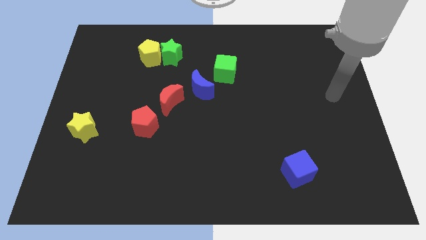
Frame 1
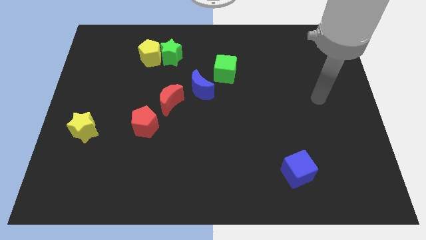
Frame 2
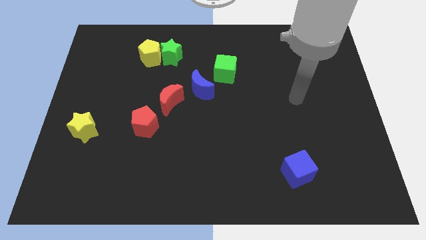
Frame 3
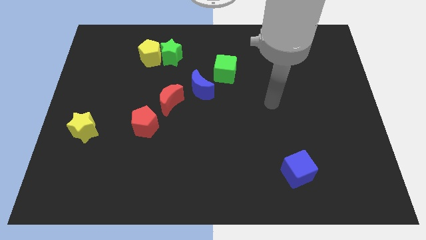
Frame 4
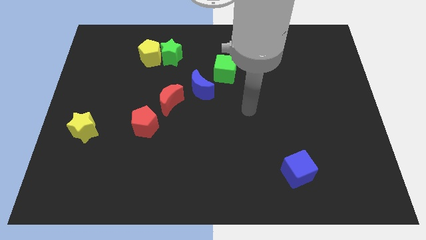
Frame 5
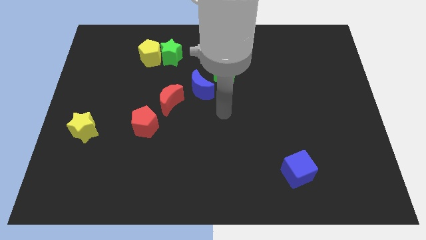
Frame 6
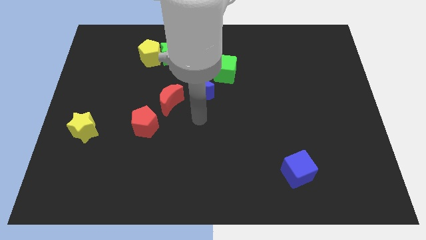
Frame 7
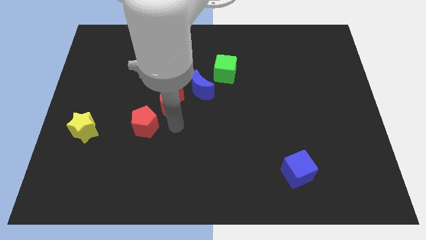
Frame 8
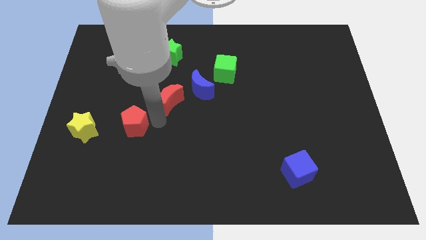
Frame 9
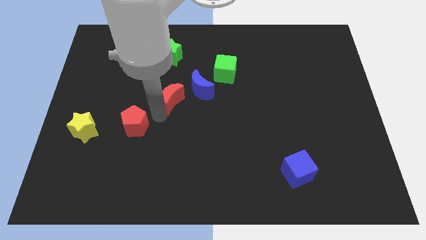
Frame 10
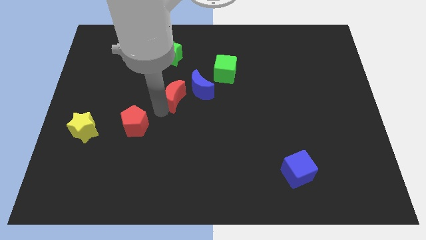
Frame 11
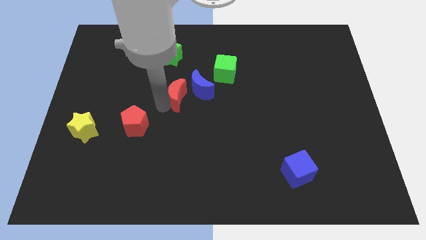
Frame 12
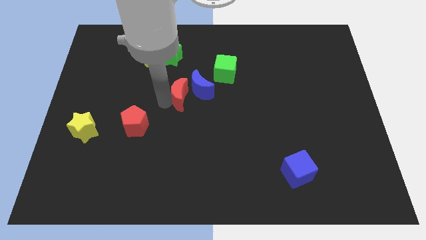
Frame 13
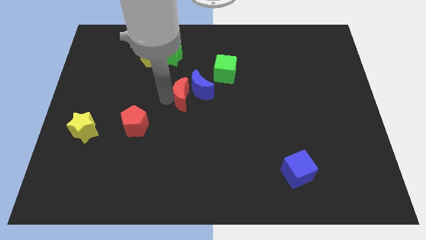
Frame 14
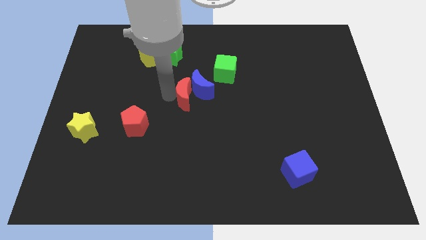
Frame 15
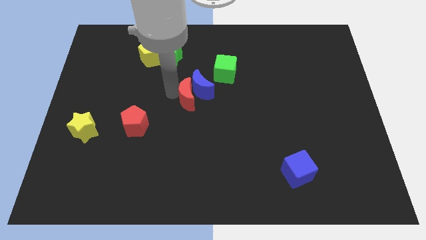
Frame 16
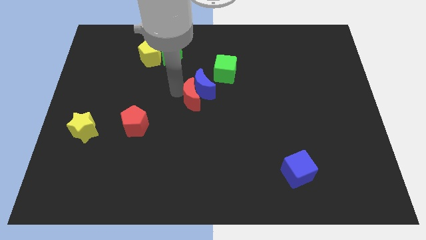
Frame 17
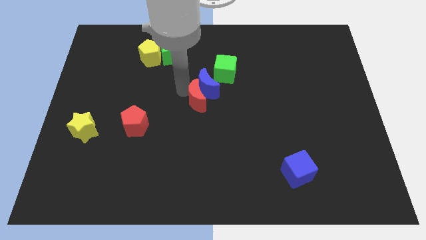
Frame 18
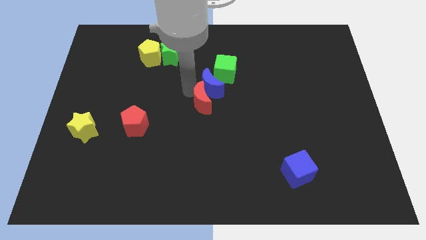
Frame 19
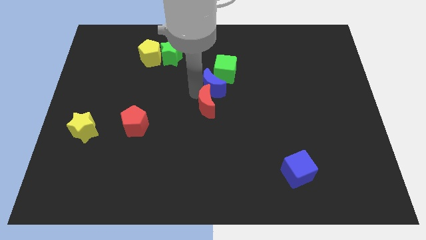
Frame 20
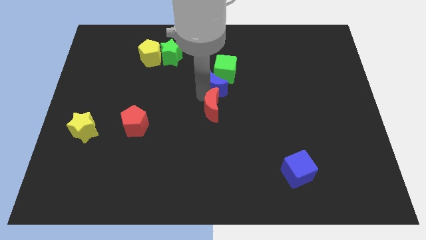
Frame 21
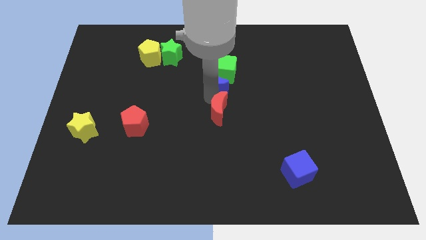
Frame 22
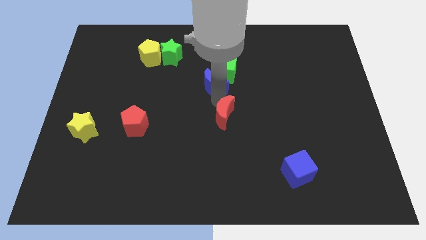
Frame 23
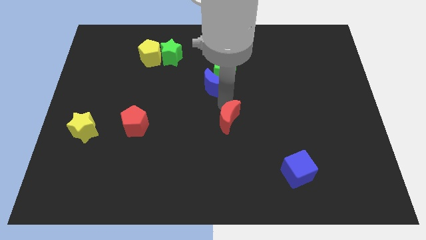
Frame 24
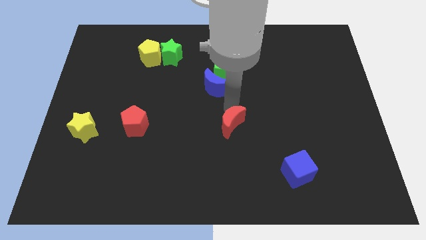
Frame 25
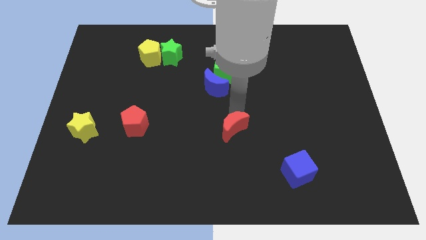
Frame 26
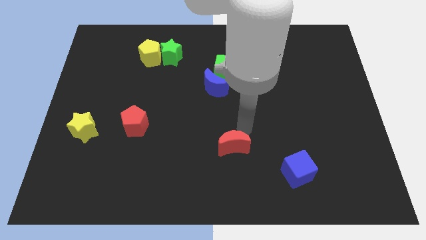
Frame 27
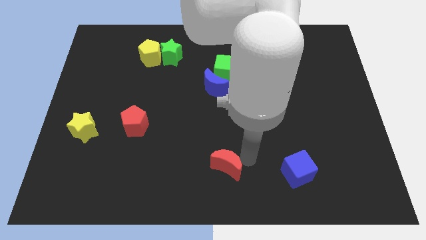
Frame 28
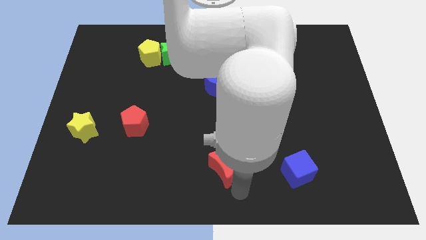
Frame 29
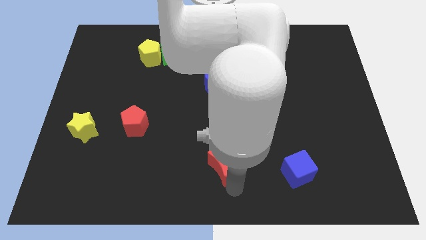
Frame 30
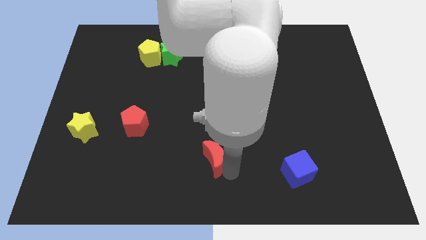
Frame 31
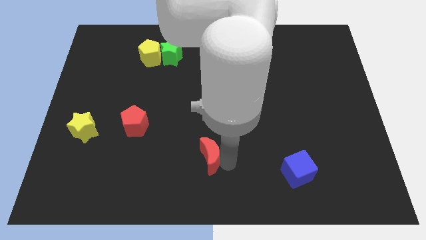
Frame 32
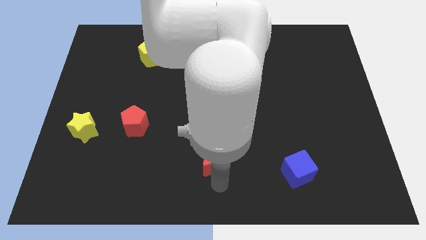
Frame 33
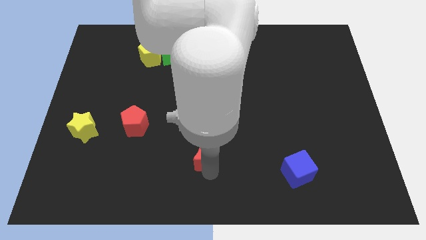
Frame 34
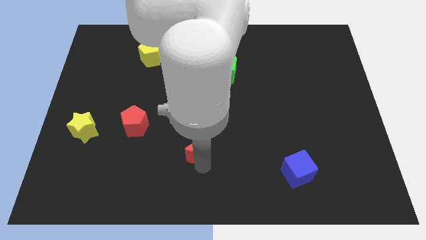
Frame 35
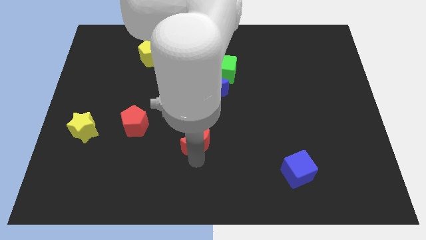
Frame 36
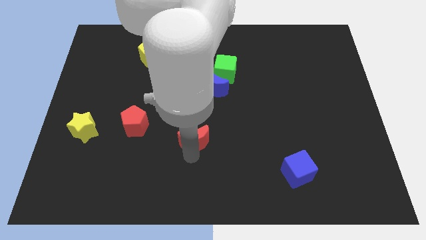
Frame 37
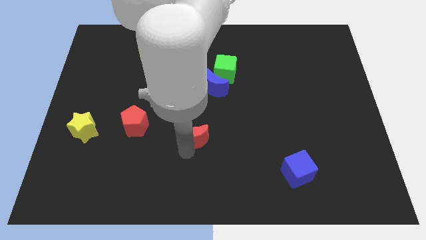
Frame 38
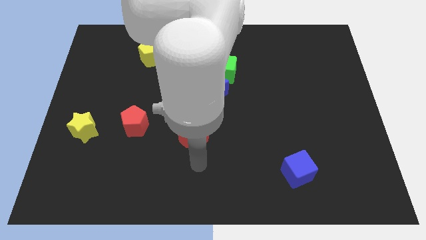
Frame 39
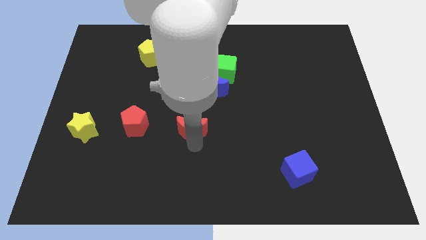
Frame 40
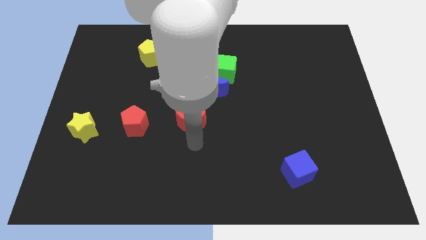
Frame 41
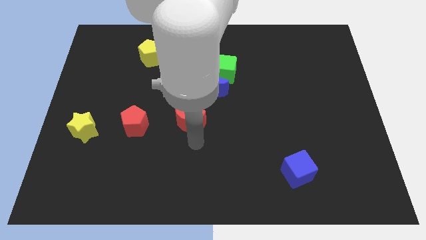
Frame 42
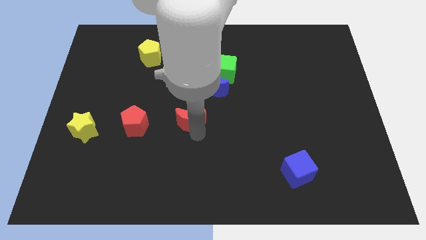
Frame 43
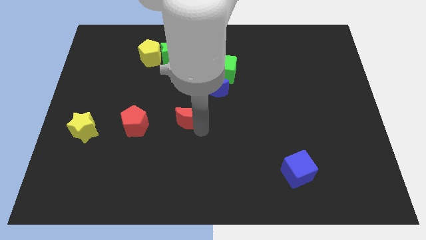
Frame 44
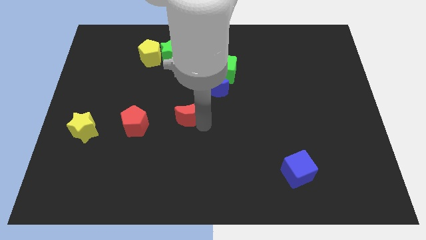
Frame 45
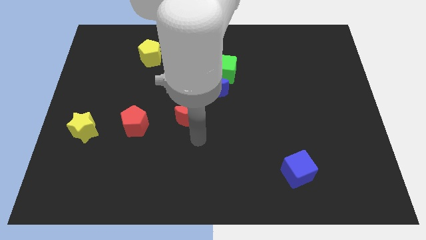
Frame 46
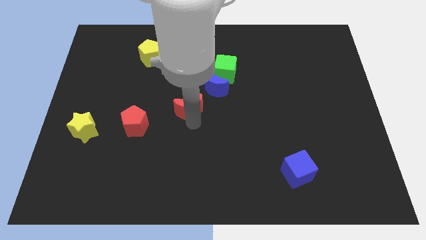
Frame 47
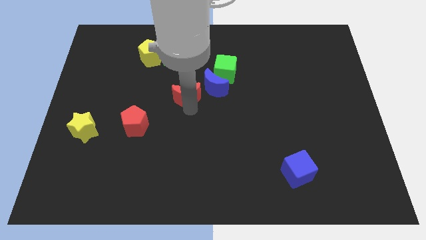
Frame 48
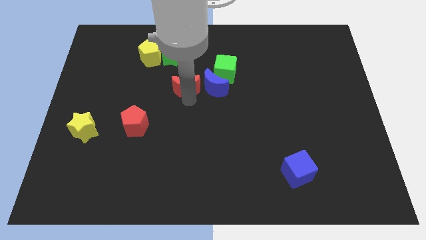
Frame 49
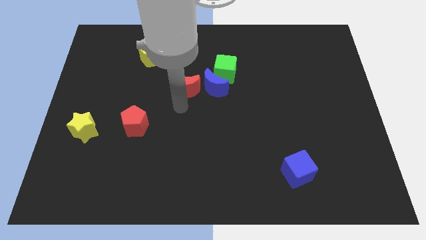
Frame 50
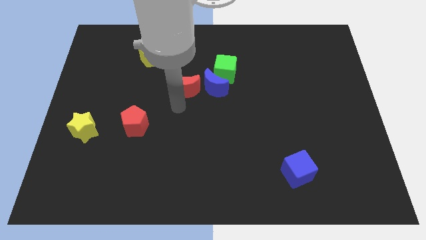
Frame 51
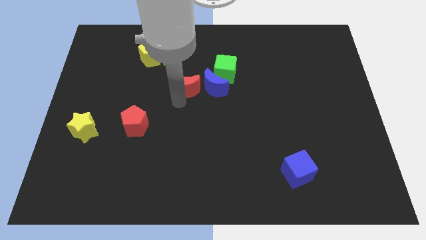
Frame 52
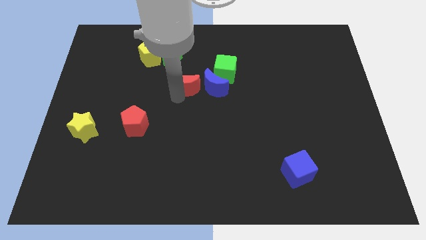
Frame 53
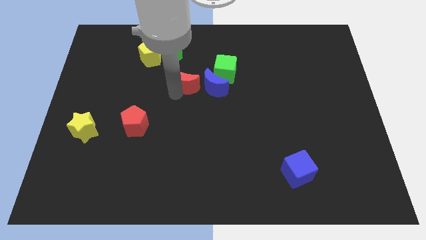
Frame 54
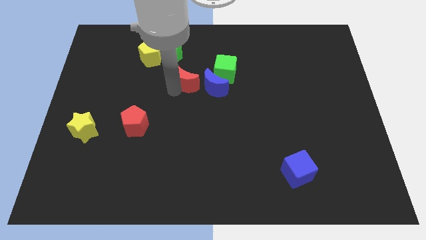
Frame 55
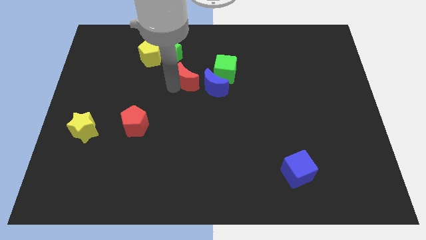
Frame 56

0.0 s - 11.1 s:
move the red moon upwards and right a bit

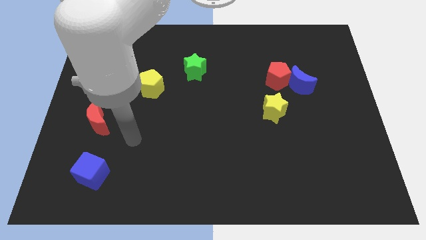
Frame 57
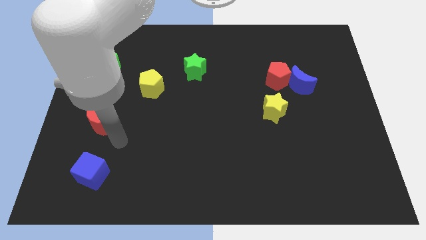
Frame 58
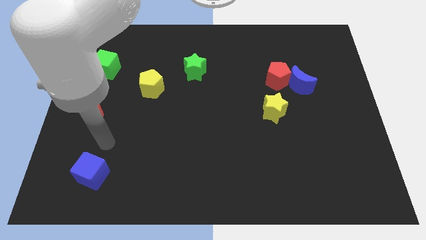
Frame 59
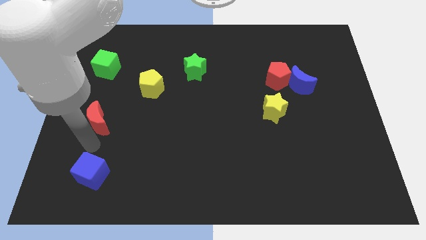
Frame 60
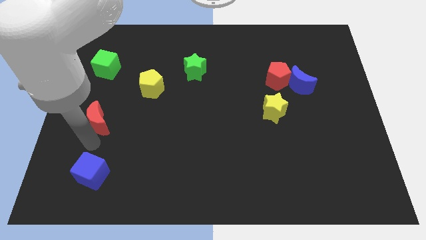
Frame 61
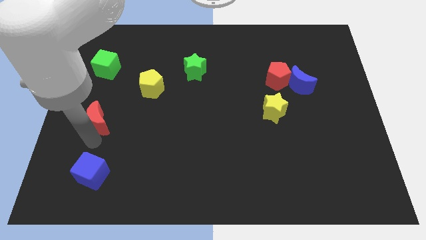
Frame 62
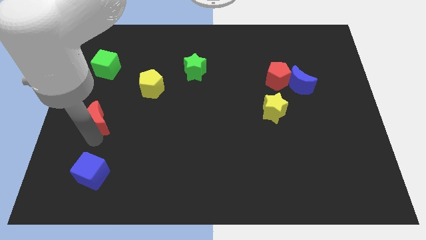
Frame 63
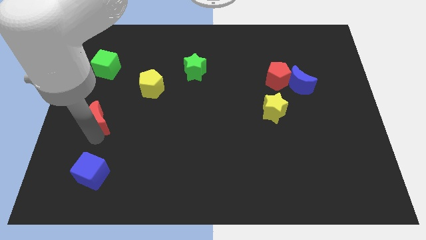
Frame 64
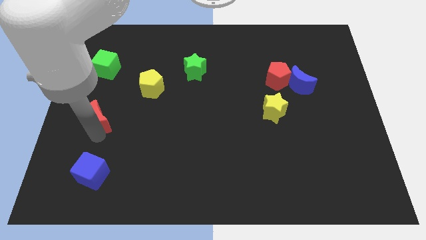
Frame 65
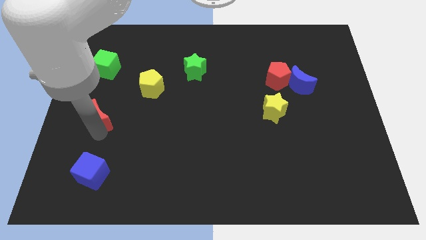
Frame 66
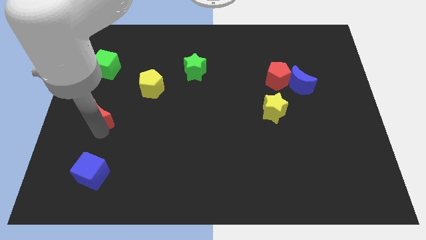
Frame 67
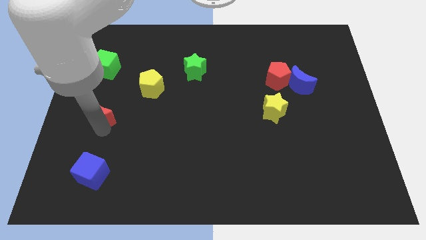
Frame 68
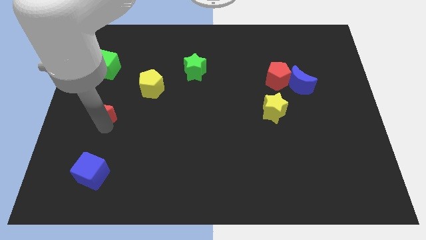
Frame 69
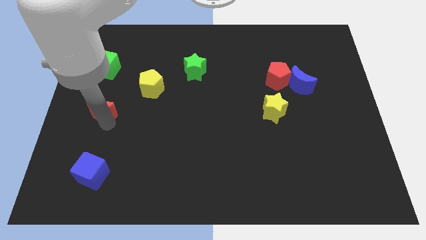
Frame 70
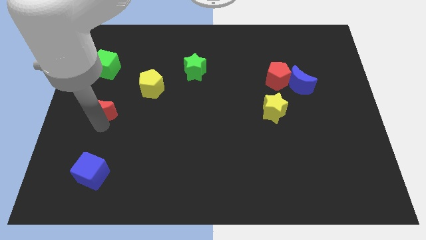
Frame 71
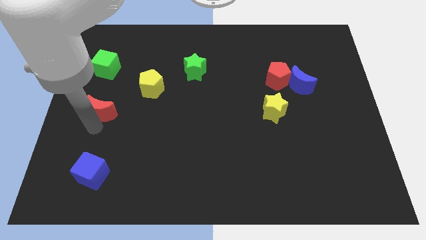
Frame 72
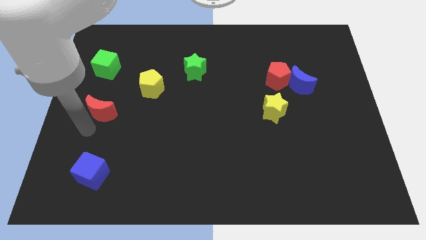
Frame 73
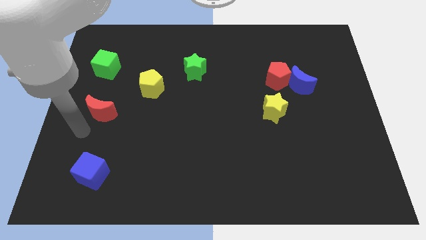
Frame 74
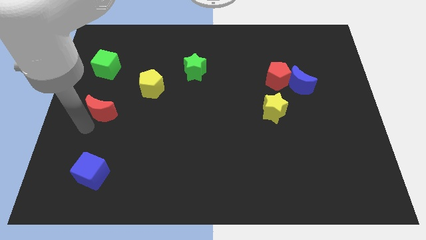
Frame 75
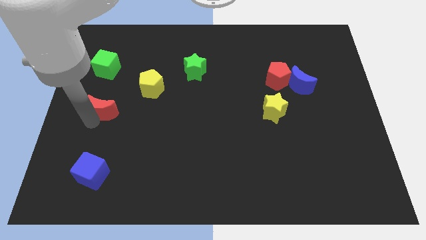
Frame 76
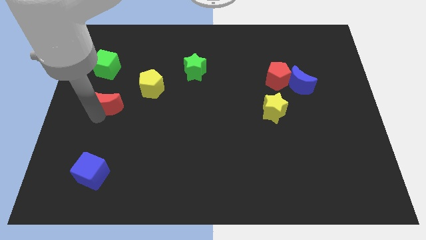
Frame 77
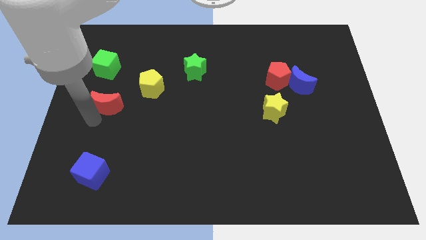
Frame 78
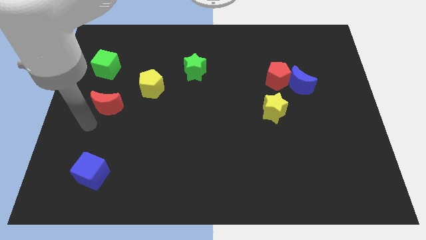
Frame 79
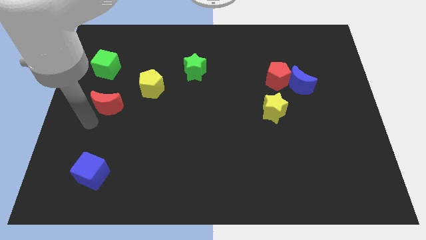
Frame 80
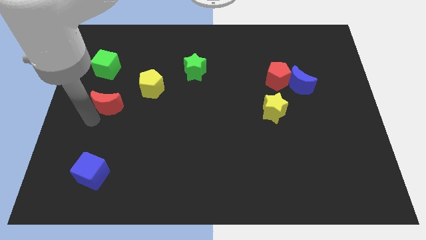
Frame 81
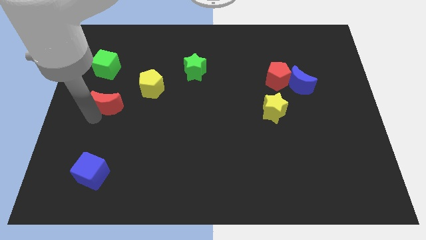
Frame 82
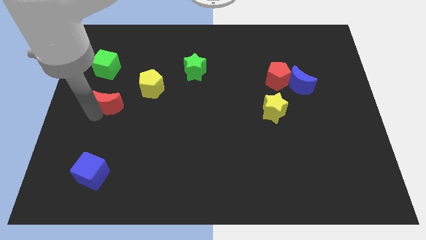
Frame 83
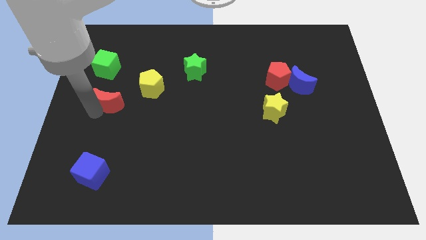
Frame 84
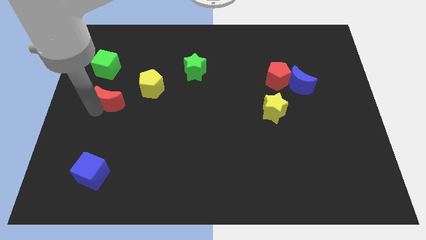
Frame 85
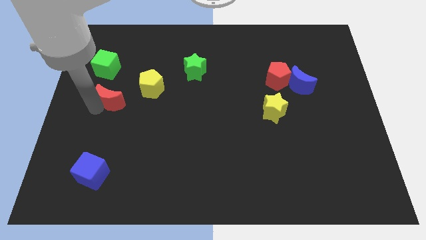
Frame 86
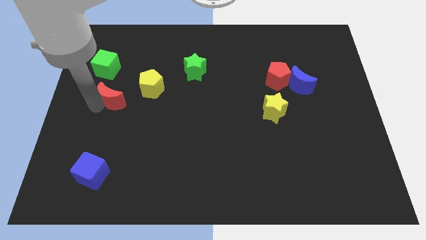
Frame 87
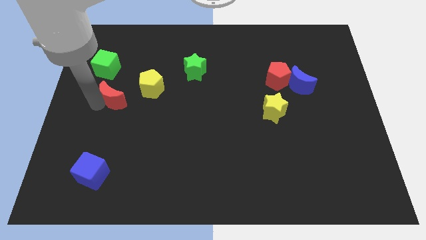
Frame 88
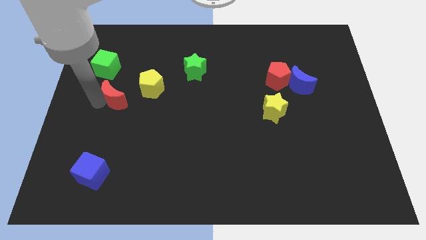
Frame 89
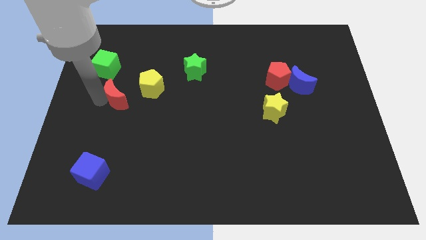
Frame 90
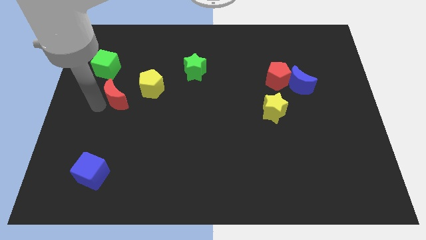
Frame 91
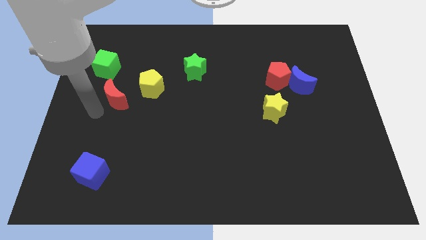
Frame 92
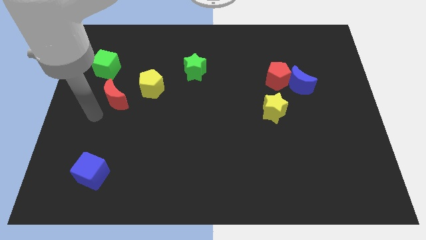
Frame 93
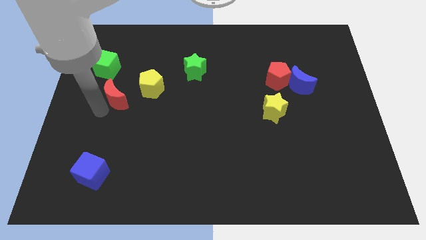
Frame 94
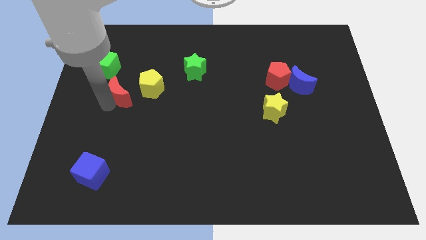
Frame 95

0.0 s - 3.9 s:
push the red moon upwards and to the right diagonally somewhat
